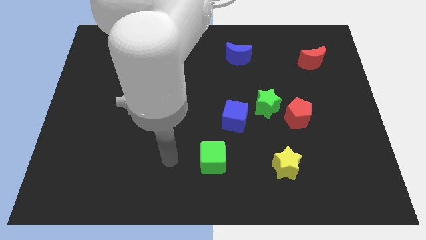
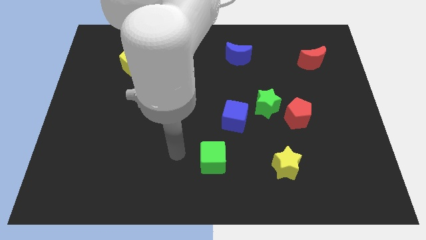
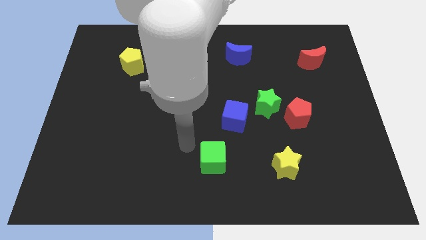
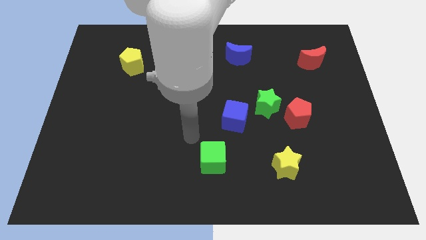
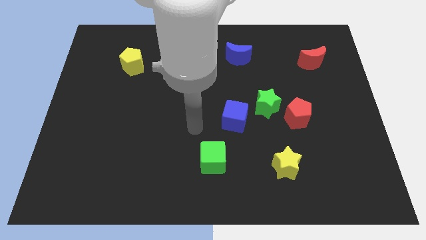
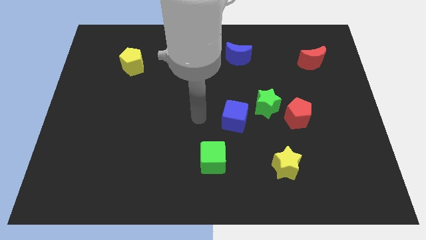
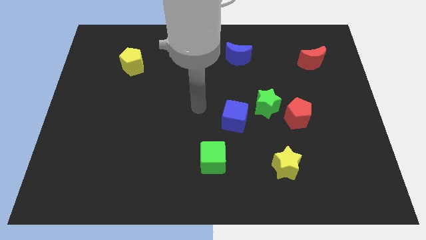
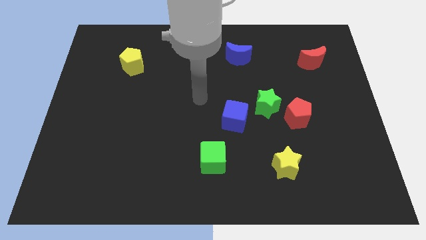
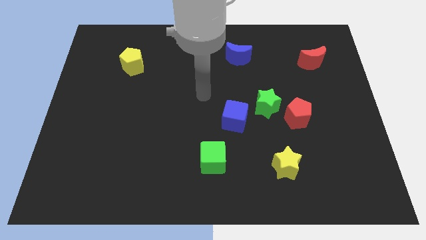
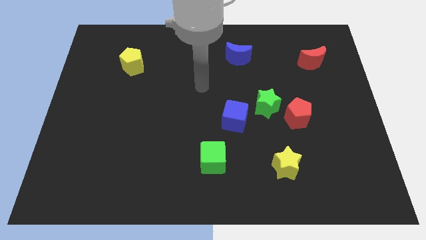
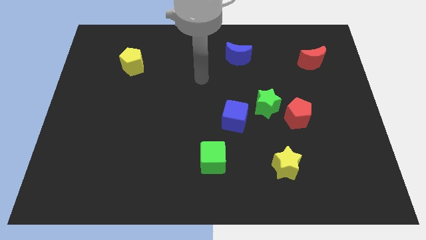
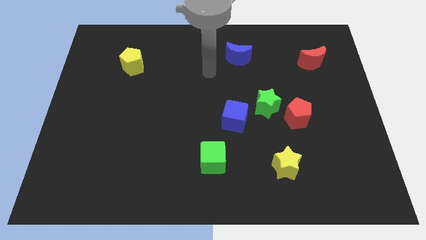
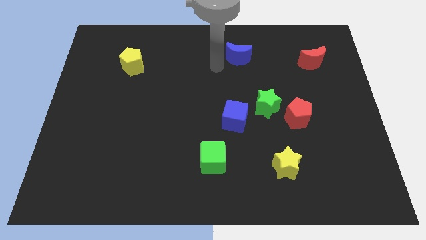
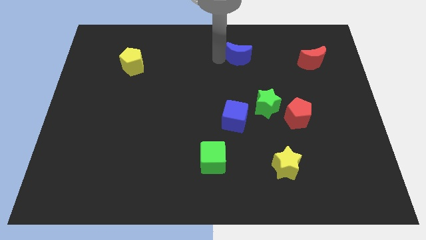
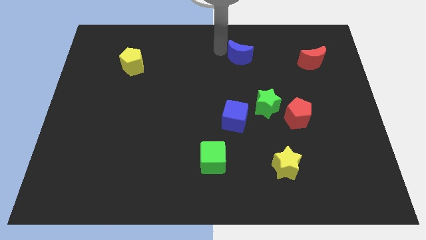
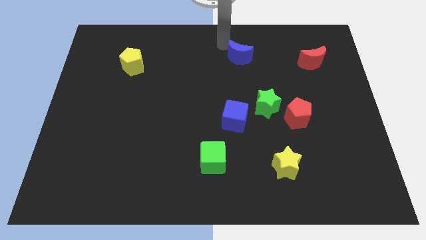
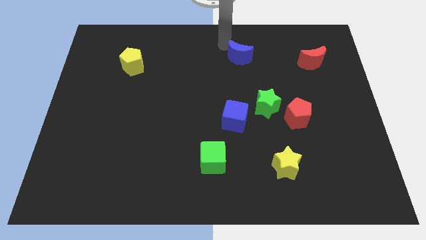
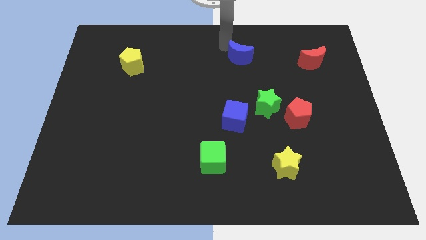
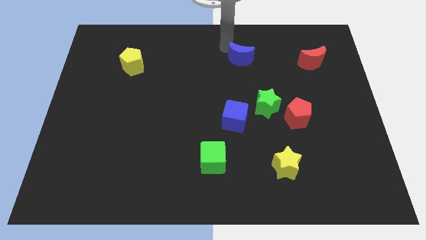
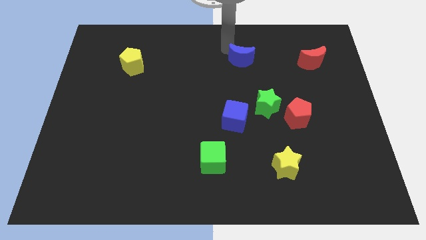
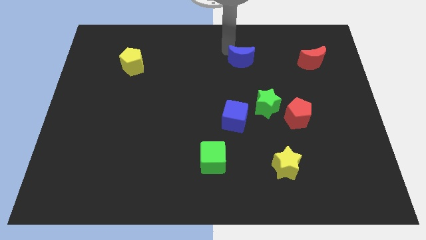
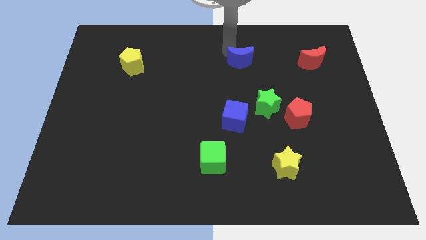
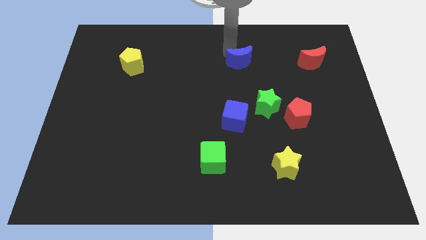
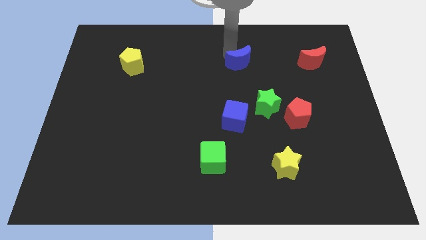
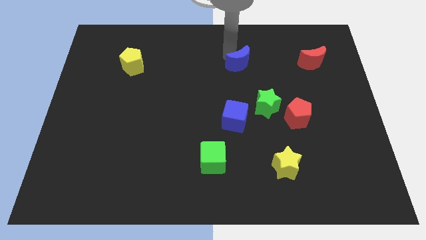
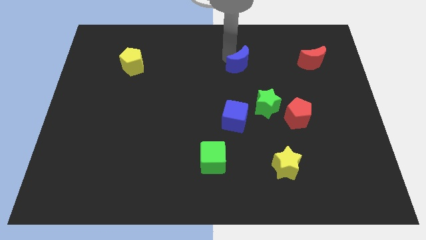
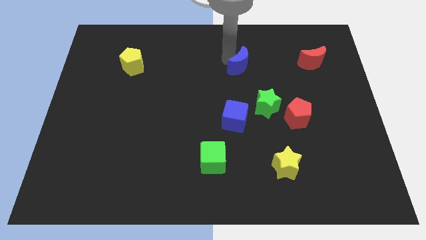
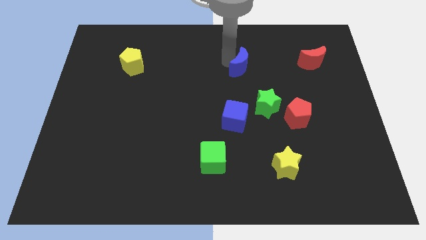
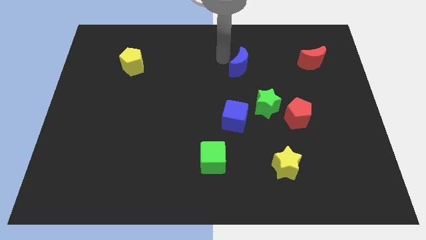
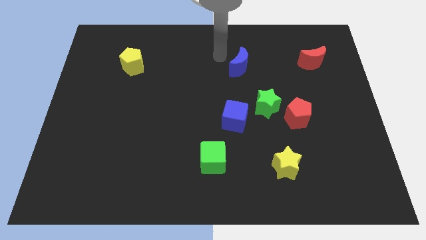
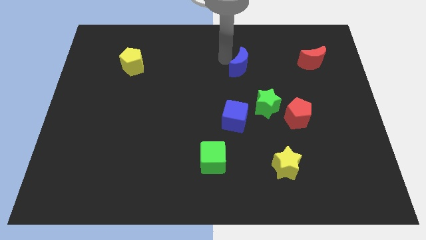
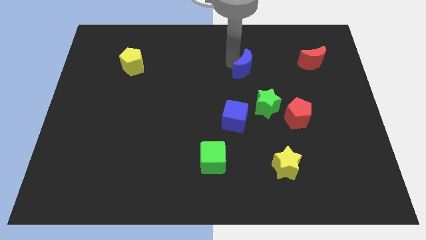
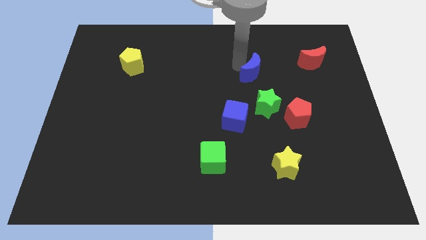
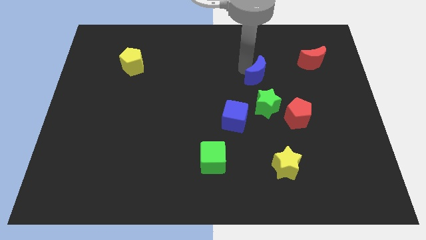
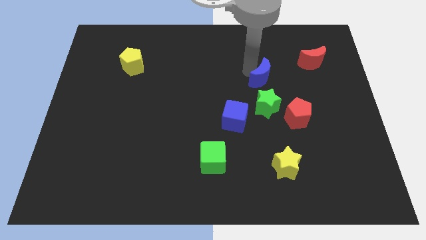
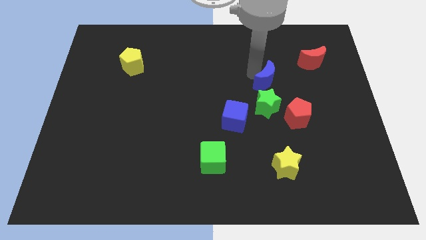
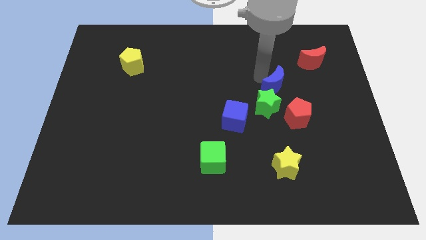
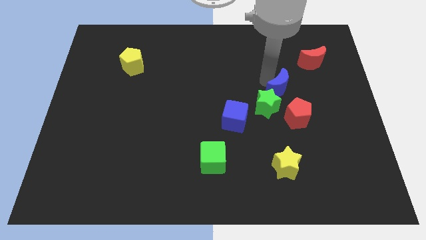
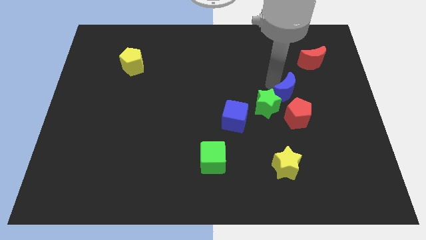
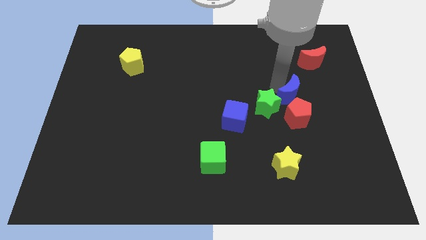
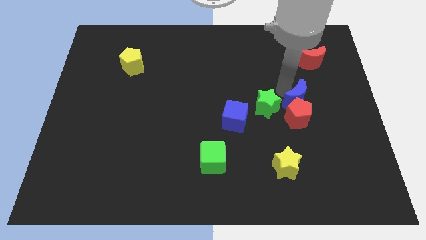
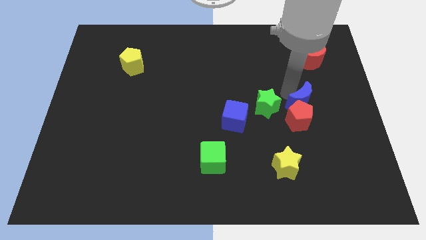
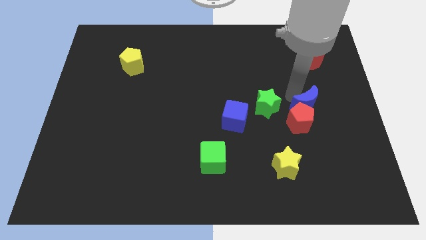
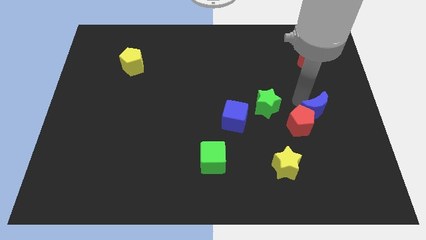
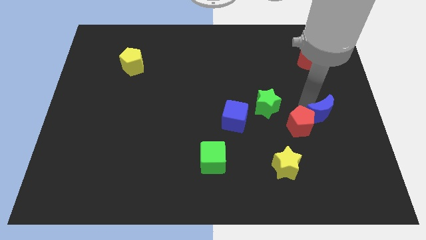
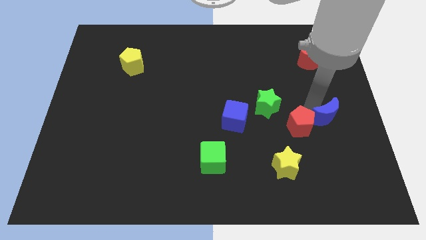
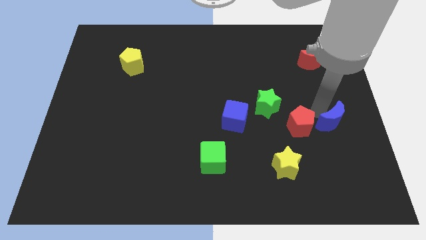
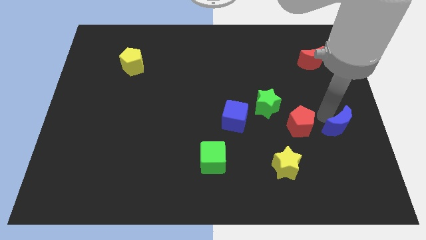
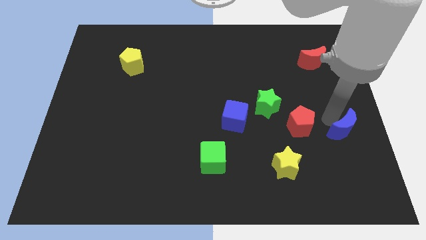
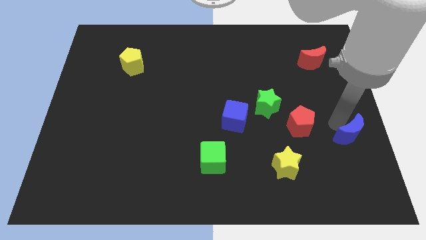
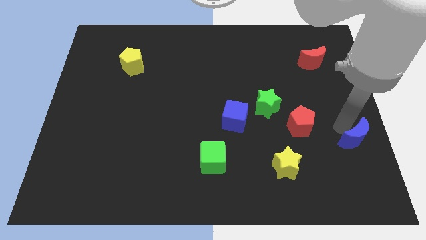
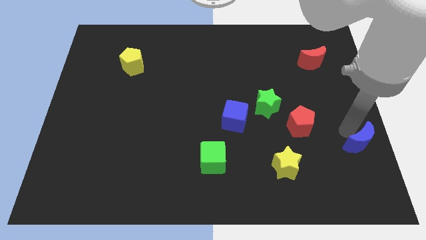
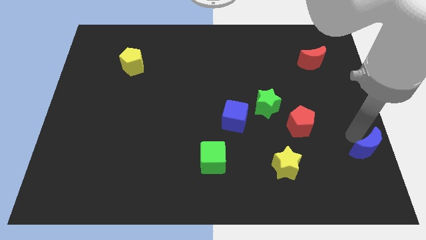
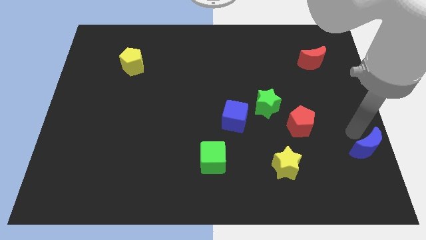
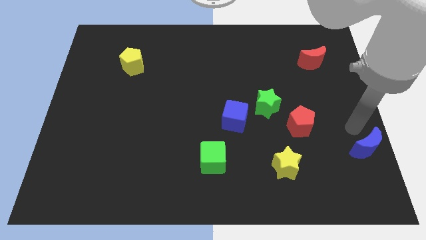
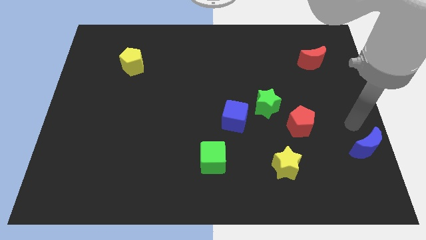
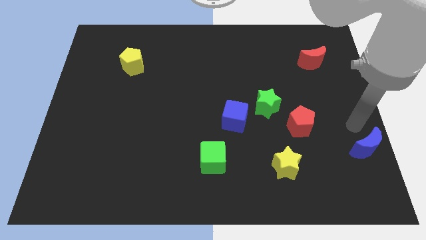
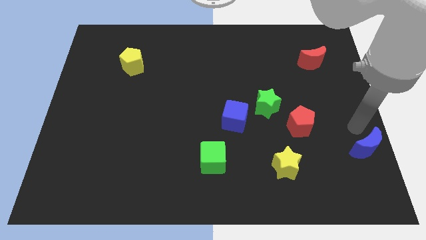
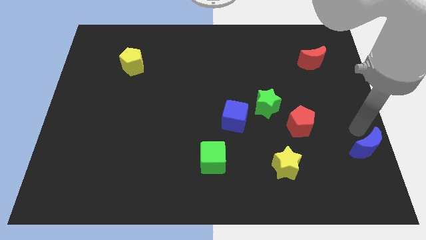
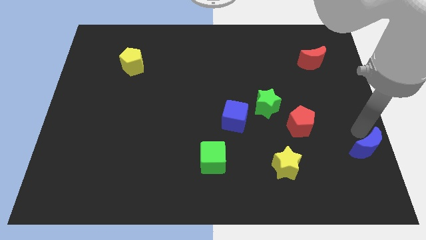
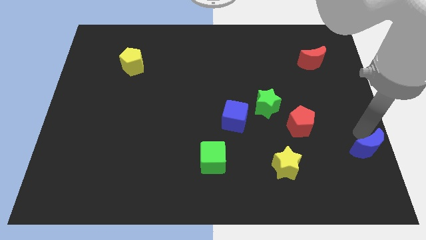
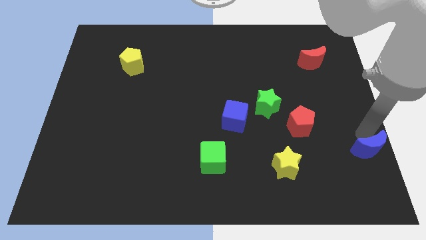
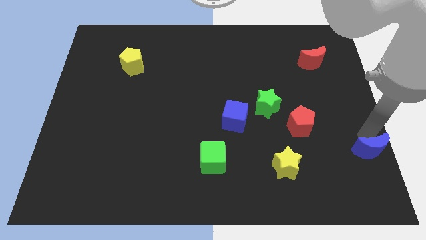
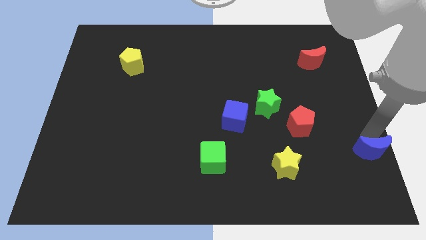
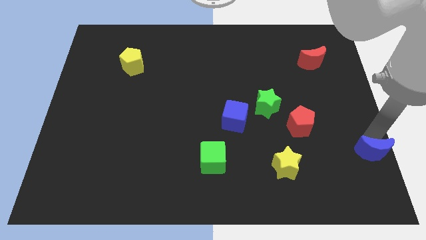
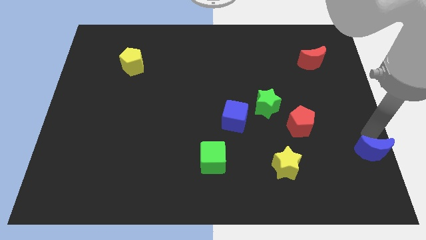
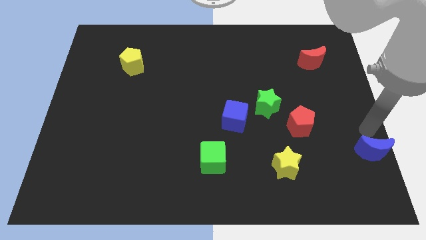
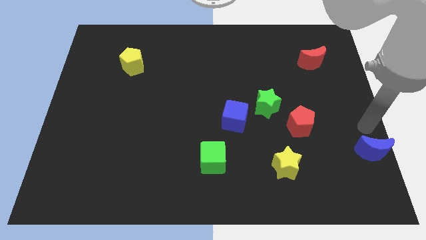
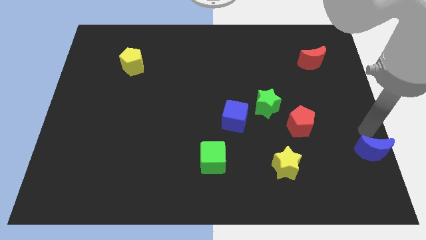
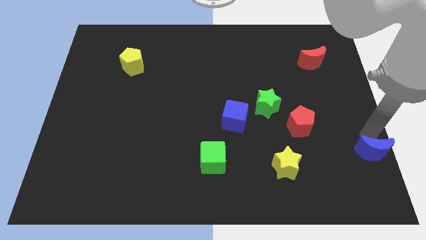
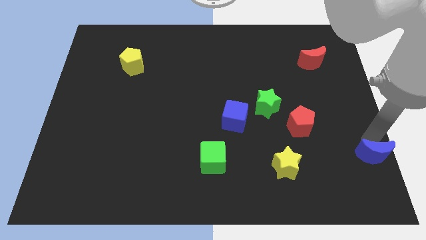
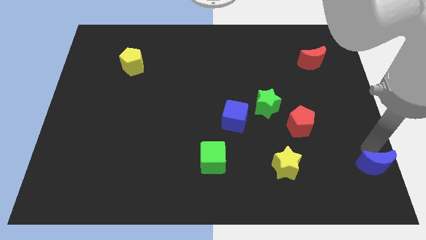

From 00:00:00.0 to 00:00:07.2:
slide the blue moon to the bottom right

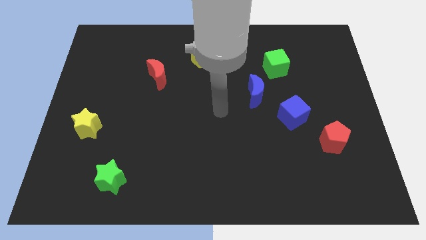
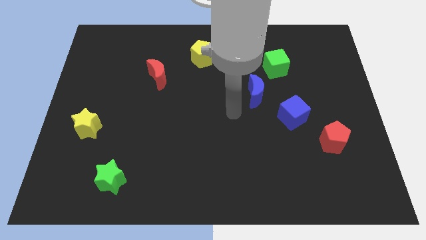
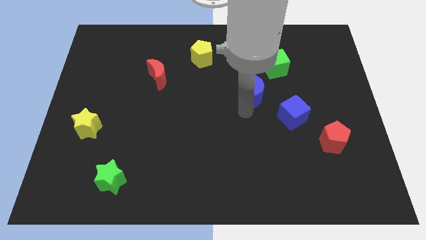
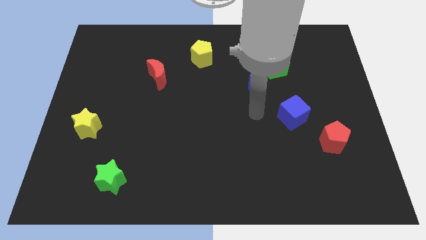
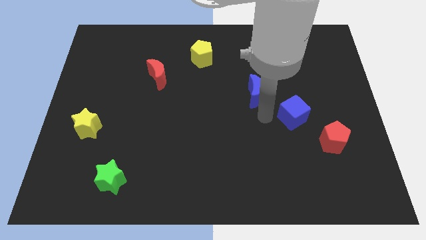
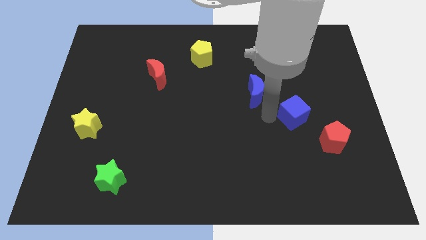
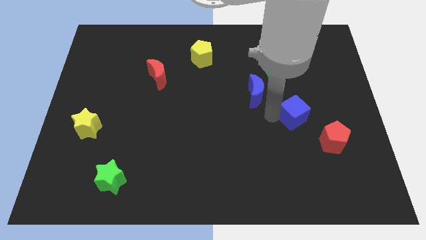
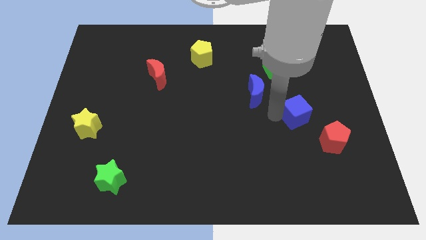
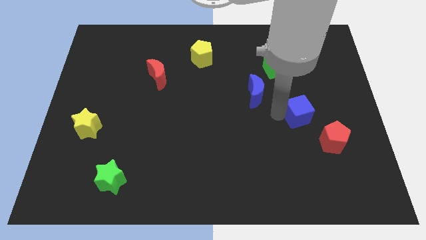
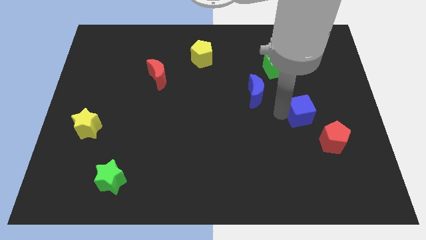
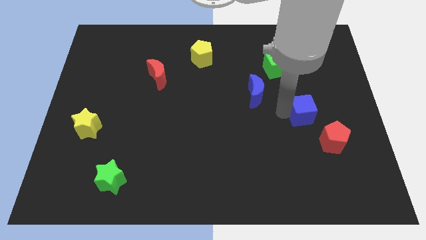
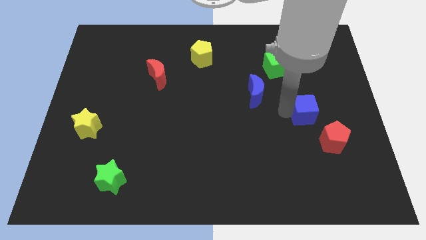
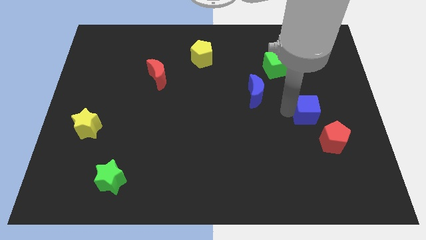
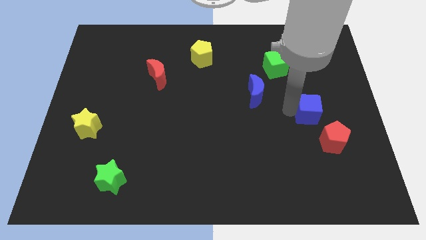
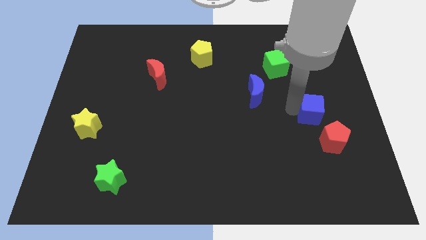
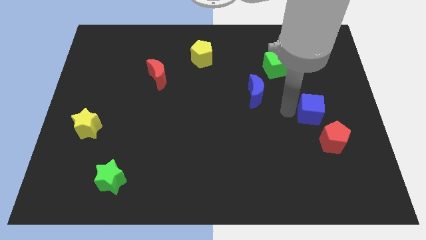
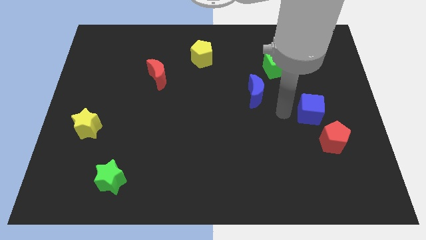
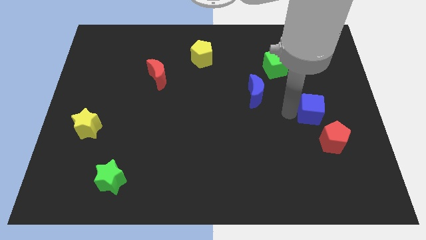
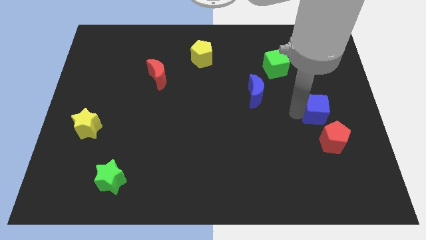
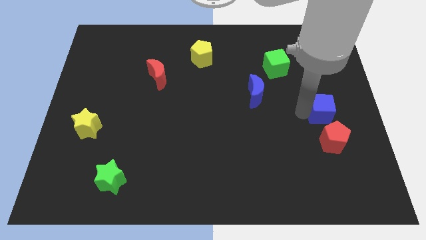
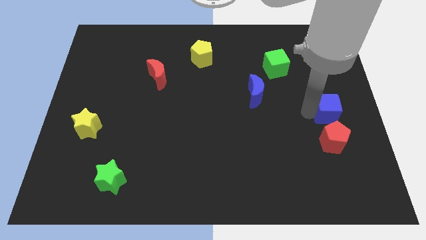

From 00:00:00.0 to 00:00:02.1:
push the blue cube to the right side of the board
